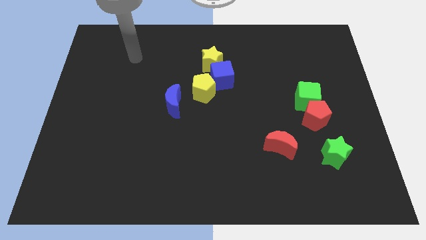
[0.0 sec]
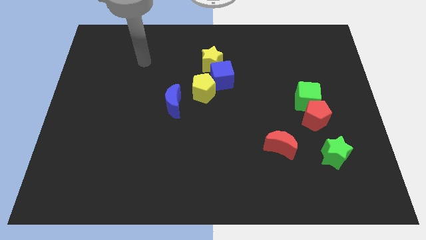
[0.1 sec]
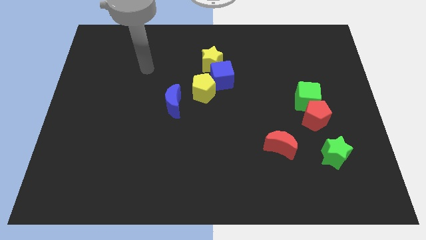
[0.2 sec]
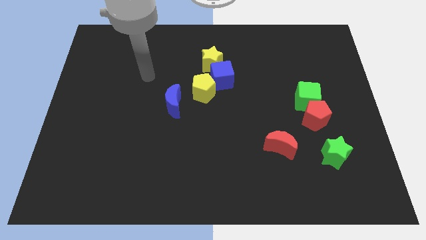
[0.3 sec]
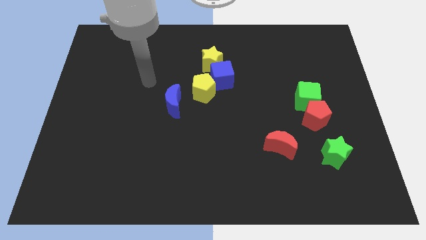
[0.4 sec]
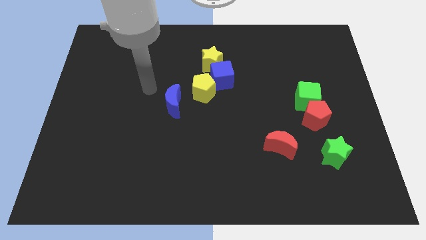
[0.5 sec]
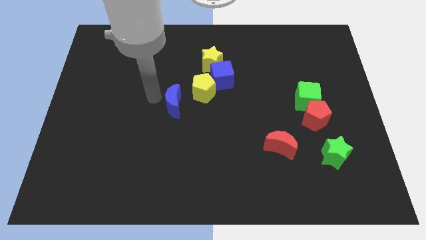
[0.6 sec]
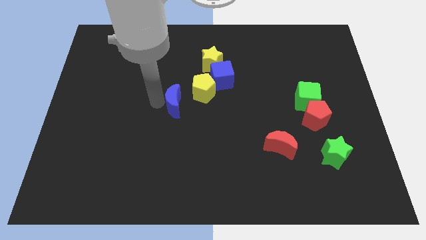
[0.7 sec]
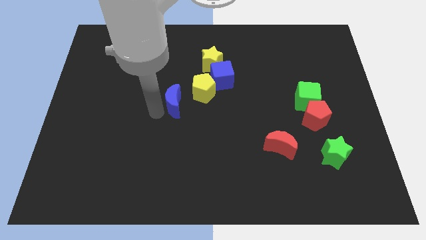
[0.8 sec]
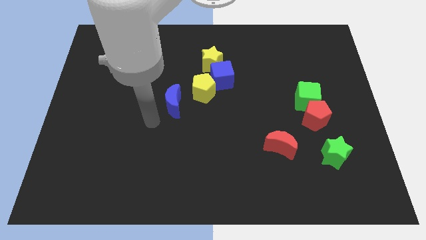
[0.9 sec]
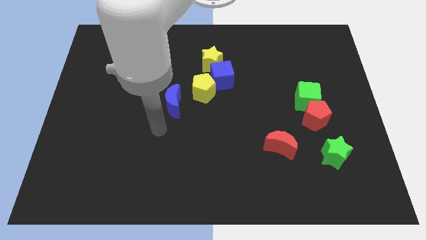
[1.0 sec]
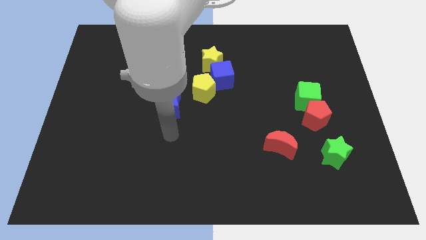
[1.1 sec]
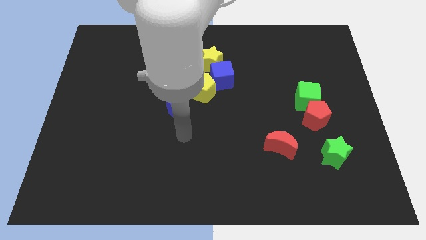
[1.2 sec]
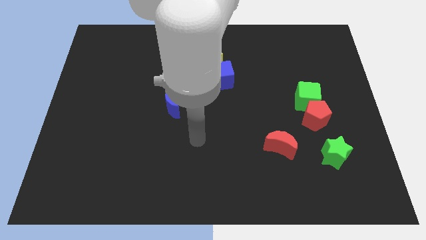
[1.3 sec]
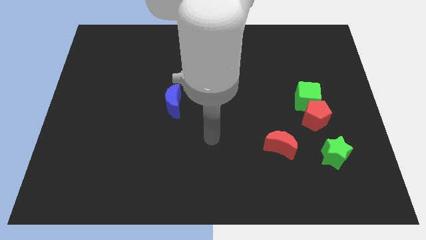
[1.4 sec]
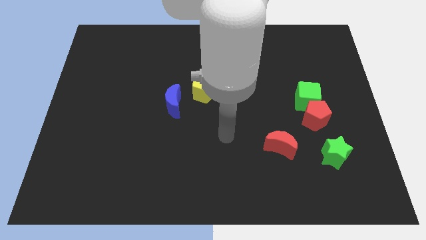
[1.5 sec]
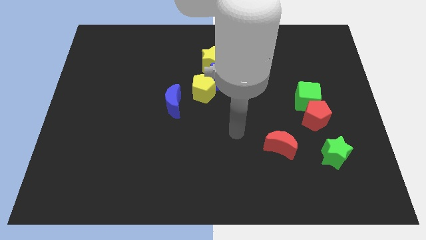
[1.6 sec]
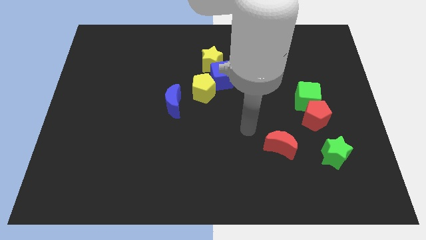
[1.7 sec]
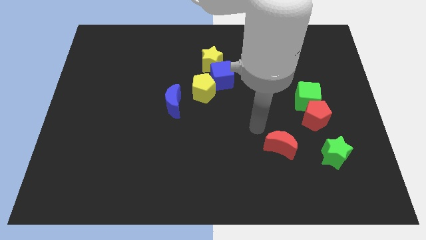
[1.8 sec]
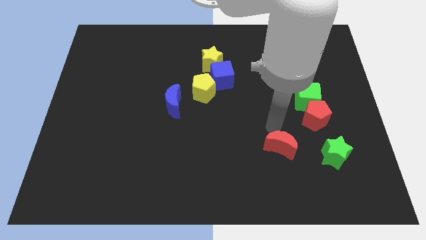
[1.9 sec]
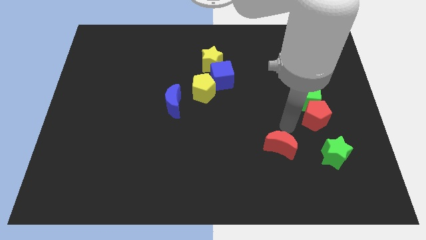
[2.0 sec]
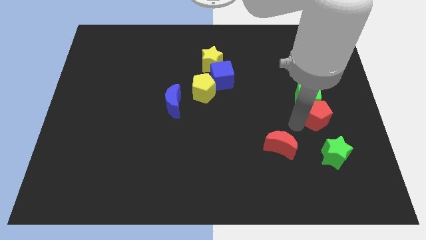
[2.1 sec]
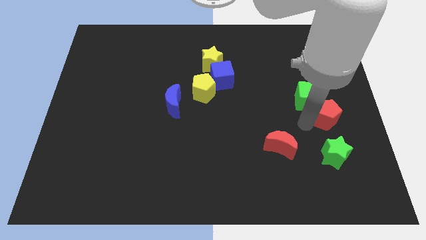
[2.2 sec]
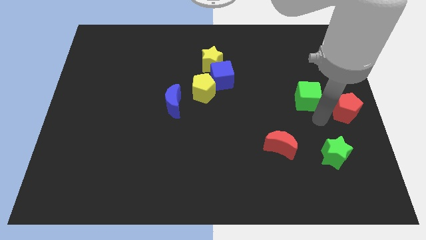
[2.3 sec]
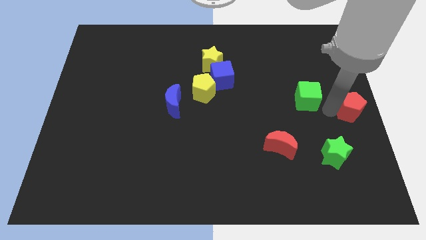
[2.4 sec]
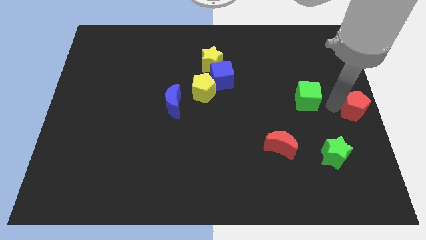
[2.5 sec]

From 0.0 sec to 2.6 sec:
separate the green cube from the red pentagon

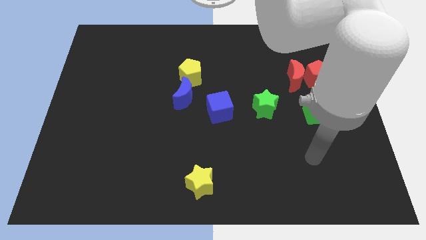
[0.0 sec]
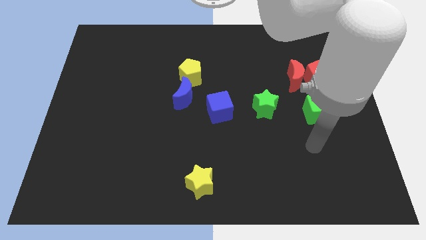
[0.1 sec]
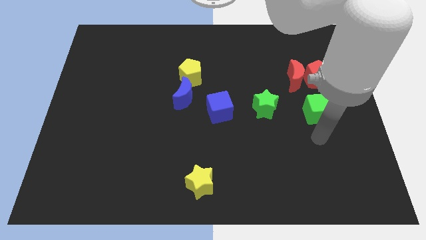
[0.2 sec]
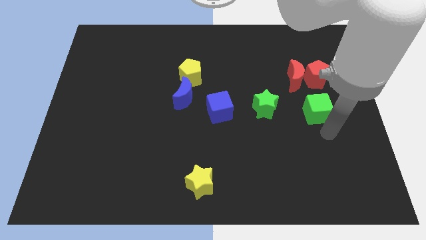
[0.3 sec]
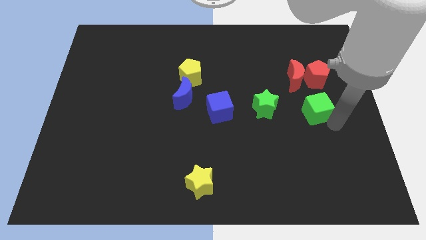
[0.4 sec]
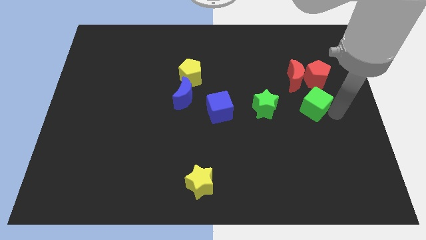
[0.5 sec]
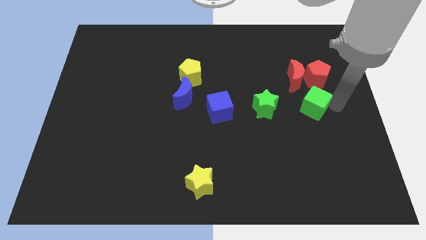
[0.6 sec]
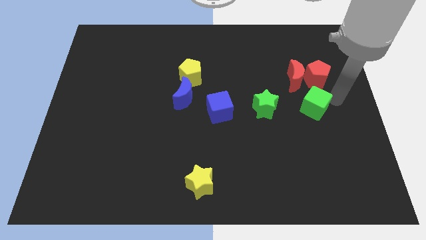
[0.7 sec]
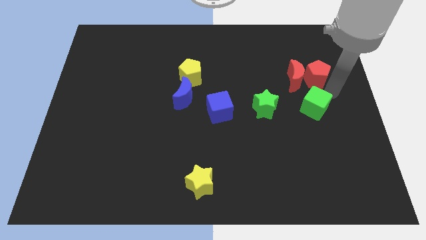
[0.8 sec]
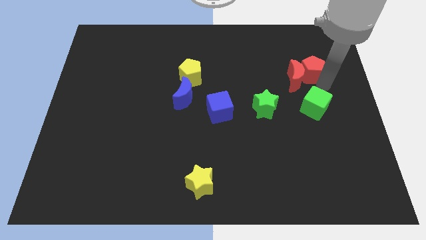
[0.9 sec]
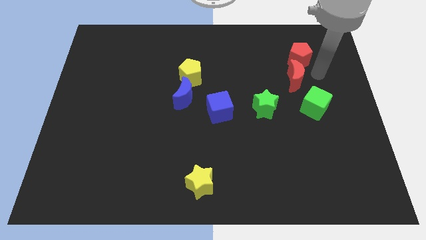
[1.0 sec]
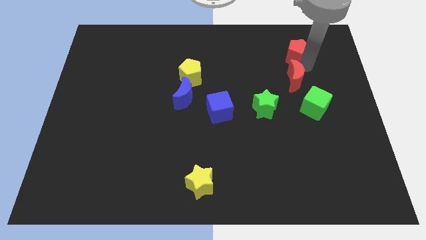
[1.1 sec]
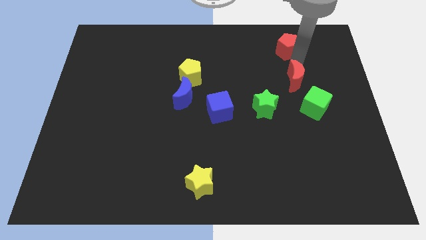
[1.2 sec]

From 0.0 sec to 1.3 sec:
pull the red moon apart from the red pentagon

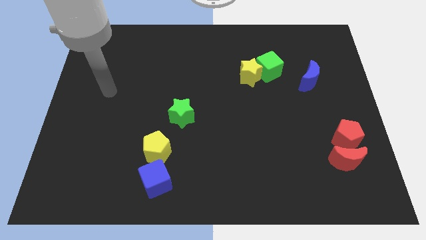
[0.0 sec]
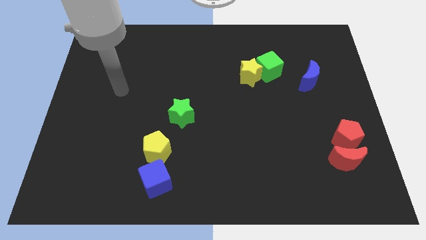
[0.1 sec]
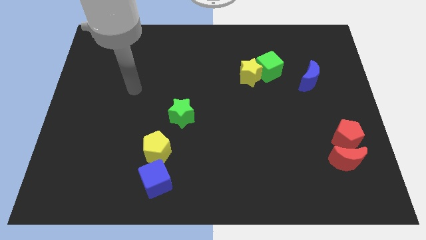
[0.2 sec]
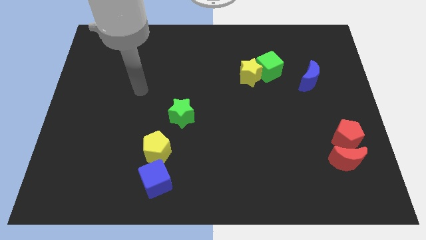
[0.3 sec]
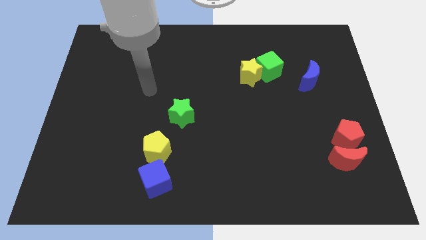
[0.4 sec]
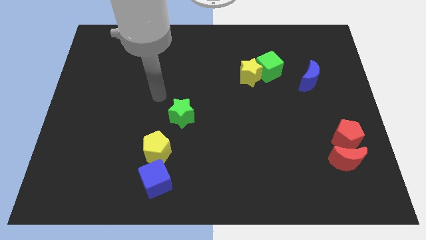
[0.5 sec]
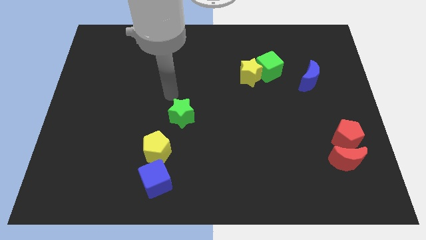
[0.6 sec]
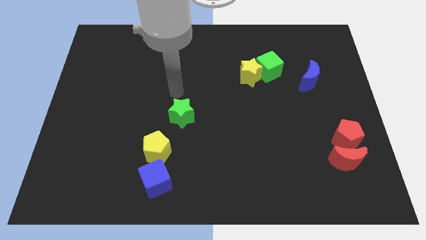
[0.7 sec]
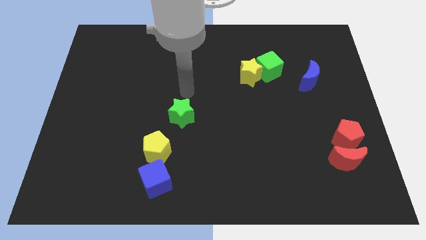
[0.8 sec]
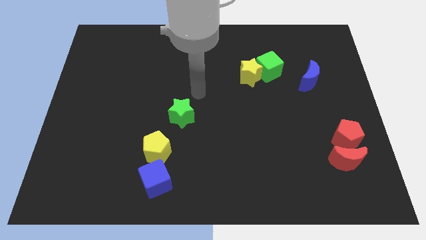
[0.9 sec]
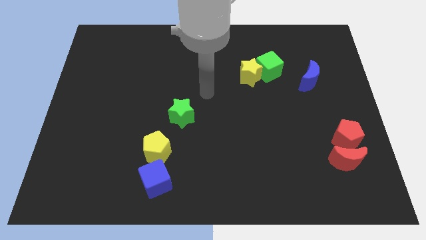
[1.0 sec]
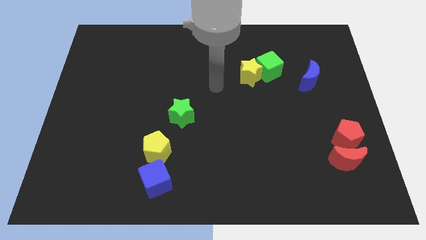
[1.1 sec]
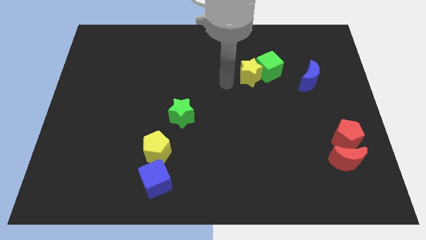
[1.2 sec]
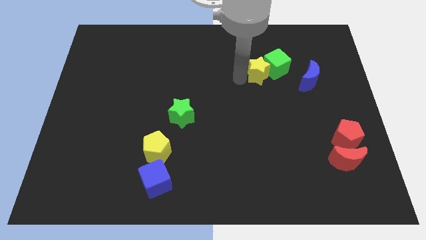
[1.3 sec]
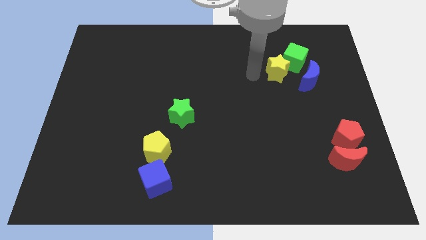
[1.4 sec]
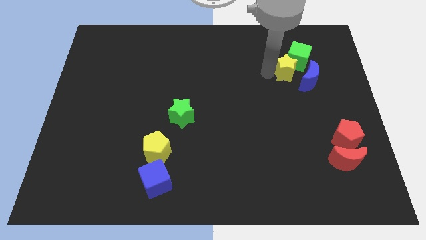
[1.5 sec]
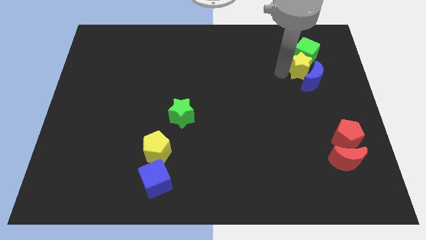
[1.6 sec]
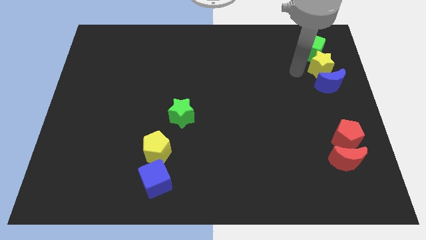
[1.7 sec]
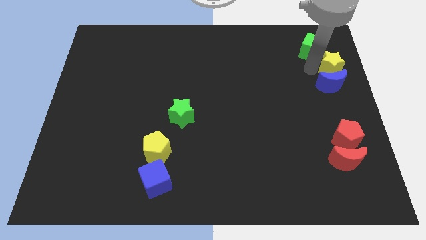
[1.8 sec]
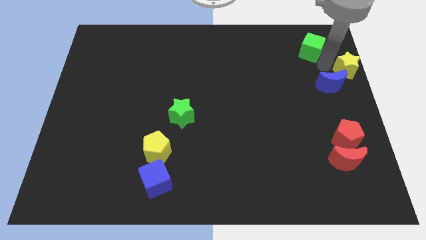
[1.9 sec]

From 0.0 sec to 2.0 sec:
move the green cube away from the yellow star

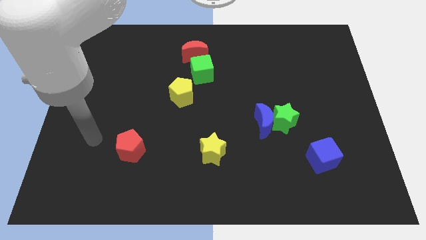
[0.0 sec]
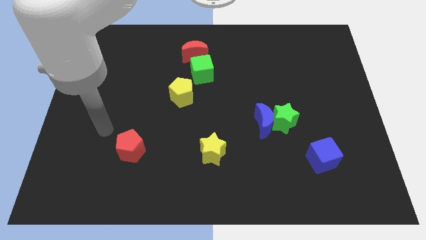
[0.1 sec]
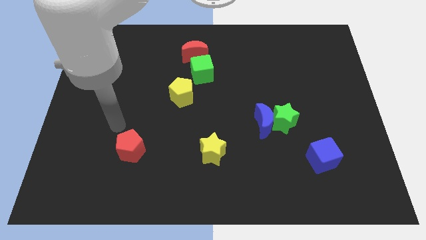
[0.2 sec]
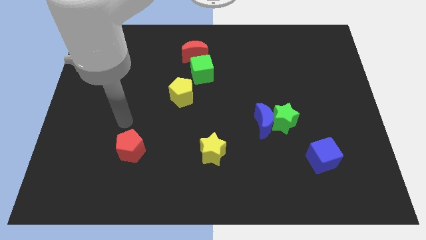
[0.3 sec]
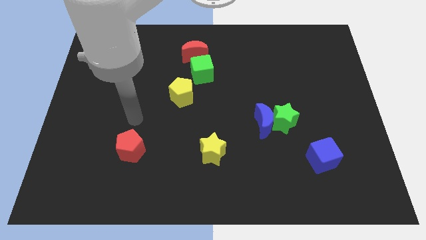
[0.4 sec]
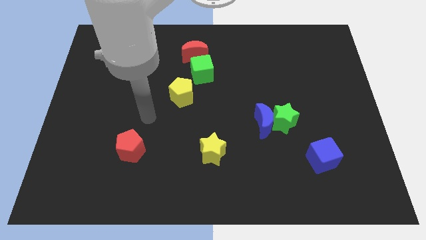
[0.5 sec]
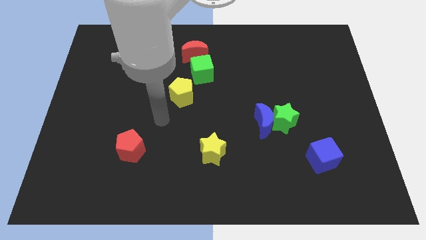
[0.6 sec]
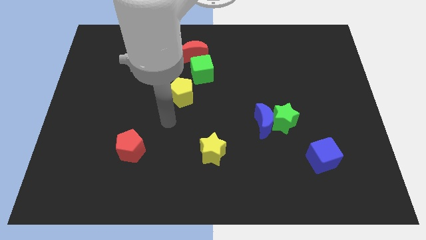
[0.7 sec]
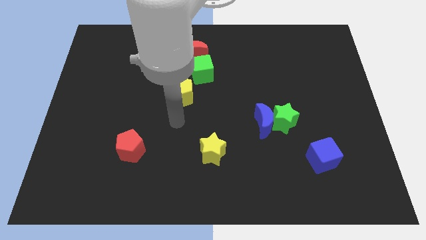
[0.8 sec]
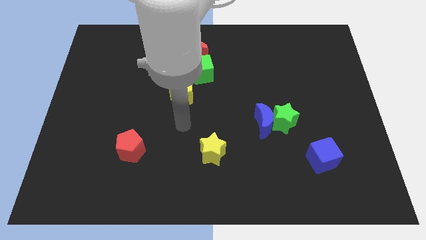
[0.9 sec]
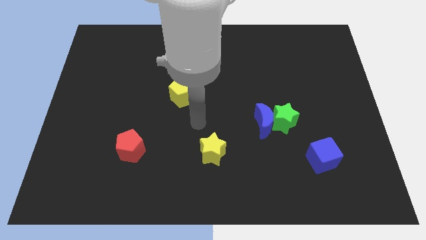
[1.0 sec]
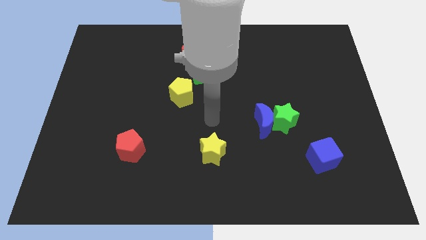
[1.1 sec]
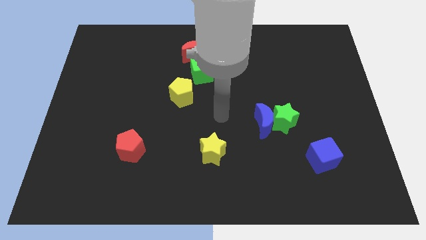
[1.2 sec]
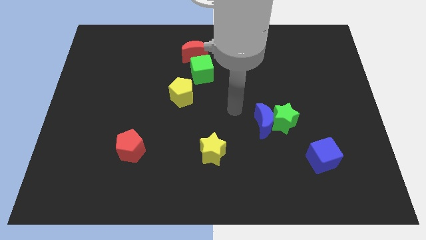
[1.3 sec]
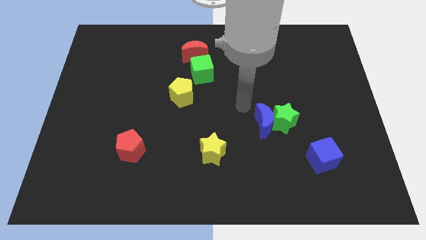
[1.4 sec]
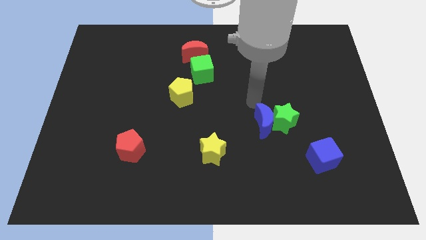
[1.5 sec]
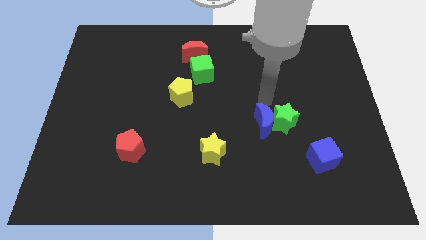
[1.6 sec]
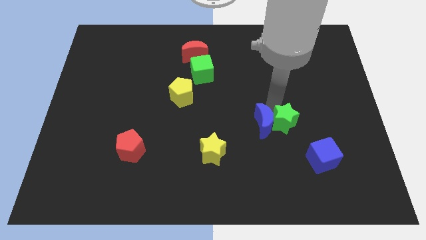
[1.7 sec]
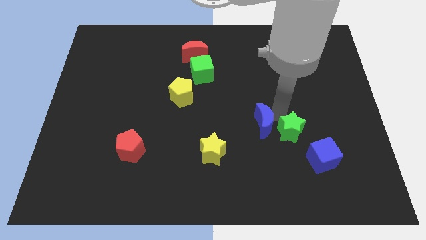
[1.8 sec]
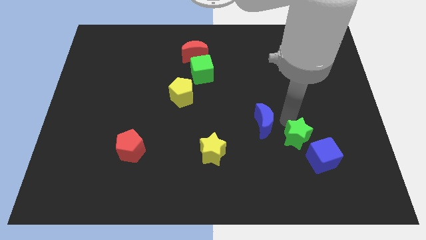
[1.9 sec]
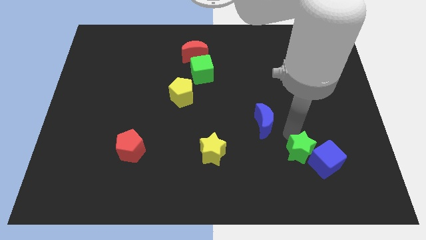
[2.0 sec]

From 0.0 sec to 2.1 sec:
pull the blue moon apart from the green star

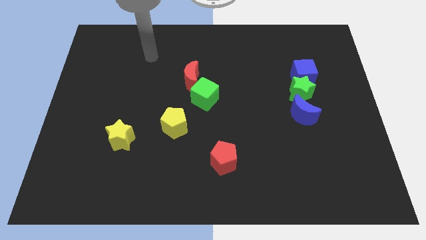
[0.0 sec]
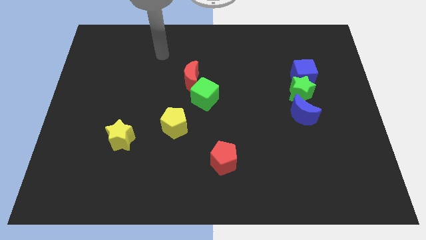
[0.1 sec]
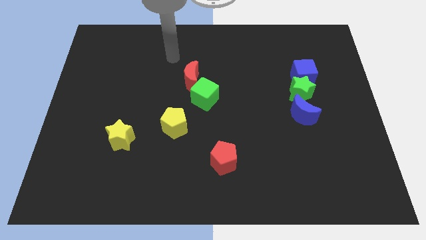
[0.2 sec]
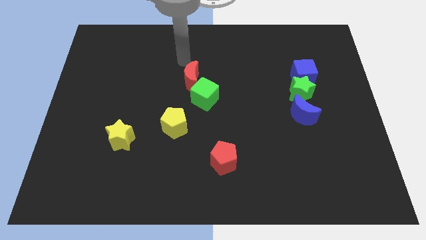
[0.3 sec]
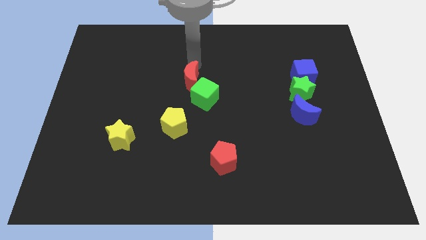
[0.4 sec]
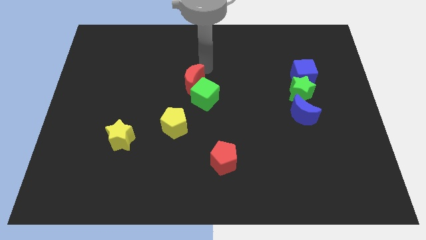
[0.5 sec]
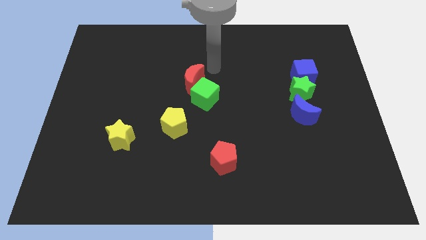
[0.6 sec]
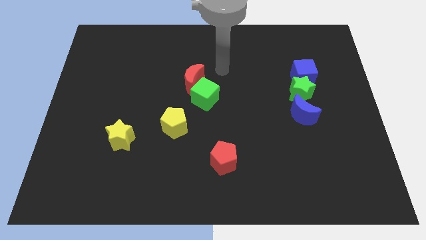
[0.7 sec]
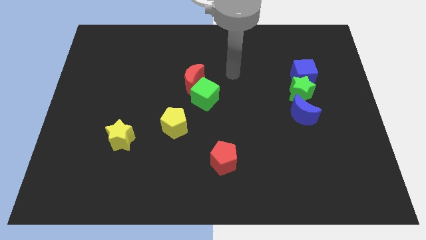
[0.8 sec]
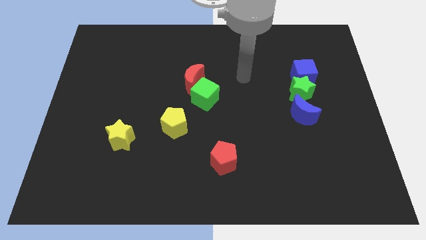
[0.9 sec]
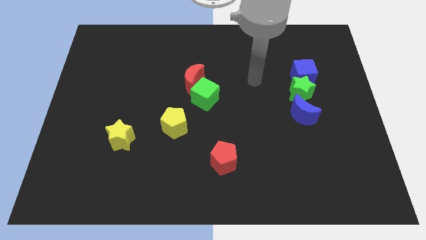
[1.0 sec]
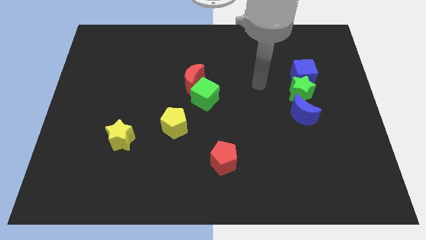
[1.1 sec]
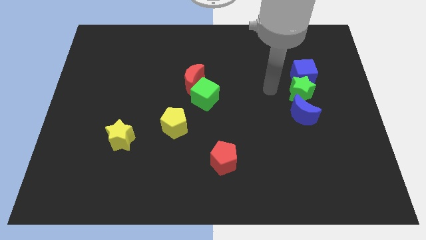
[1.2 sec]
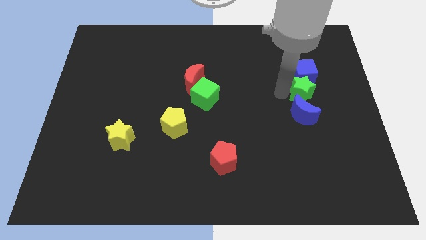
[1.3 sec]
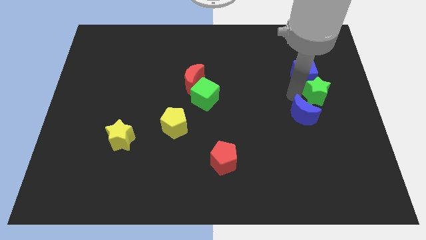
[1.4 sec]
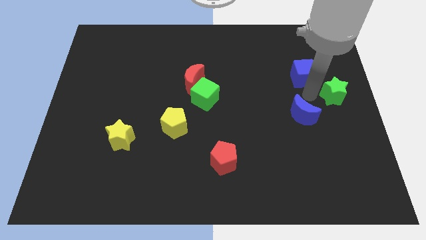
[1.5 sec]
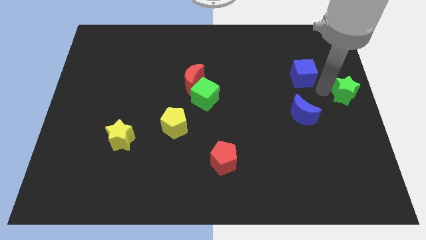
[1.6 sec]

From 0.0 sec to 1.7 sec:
separate the blue cube from the green star
